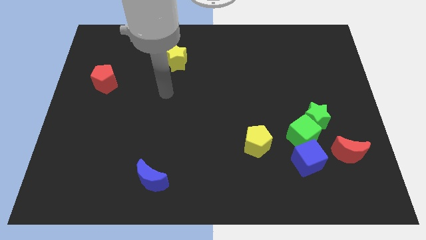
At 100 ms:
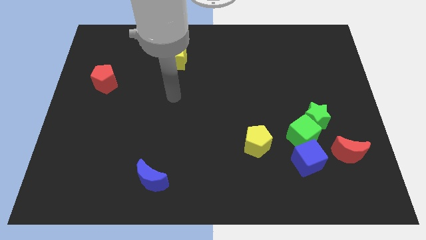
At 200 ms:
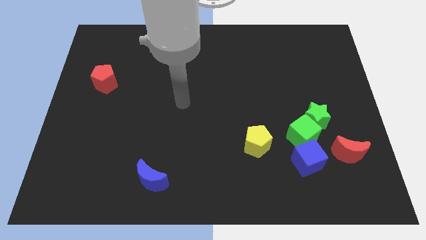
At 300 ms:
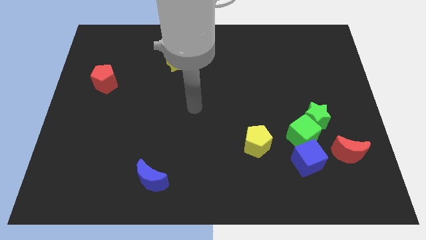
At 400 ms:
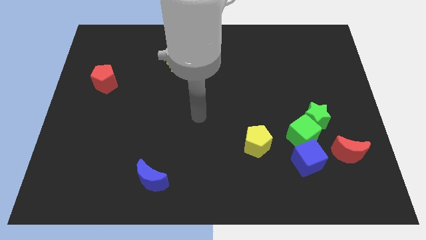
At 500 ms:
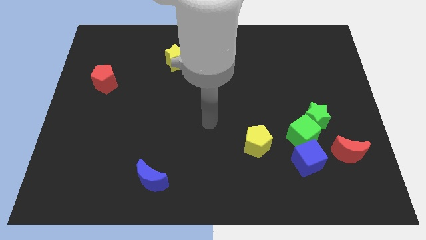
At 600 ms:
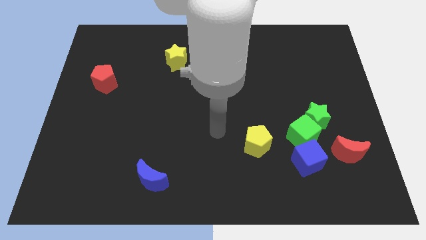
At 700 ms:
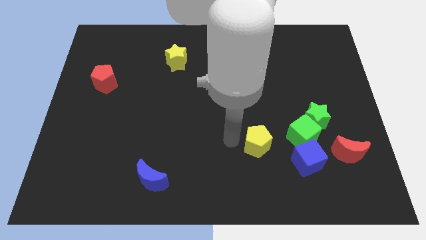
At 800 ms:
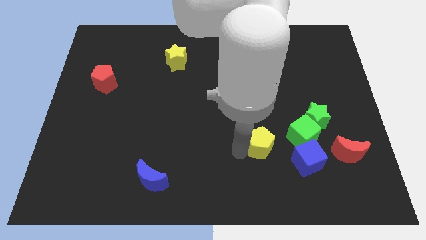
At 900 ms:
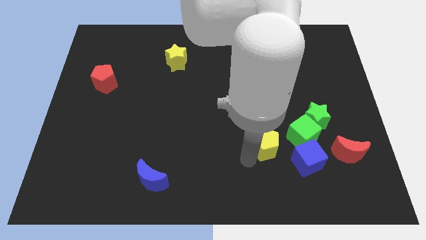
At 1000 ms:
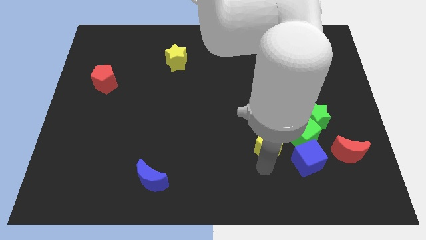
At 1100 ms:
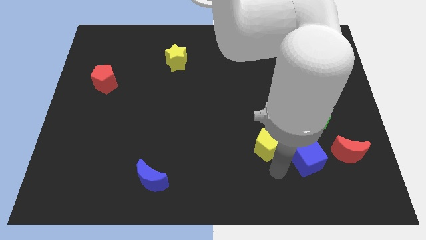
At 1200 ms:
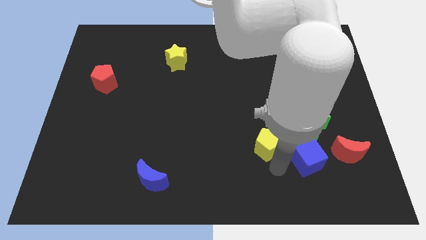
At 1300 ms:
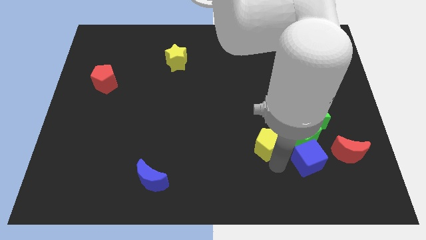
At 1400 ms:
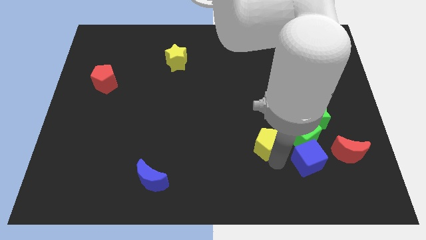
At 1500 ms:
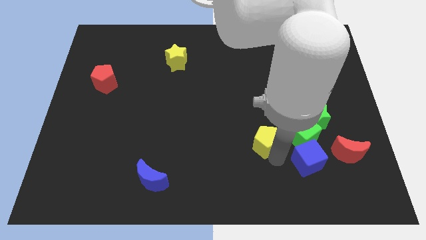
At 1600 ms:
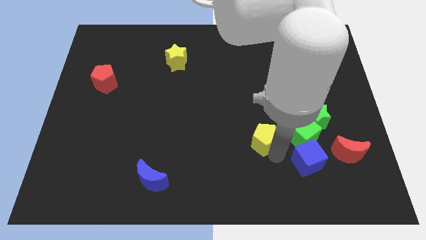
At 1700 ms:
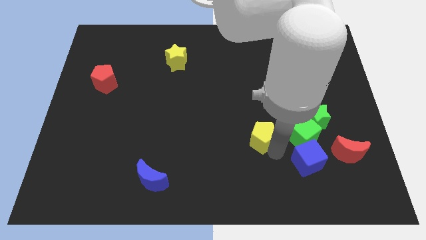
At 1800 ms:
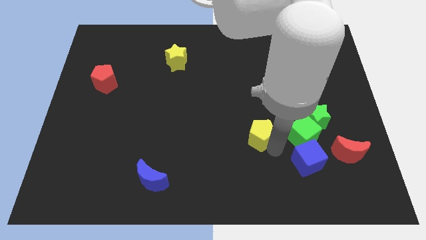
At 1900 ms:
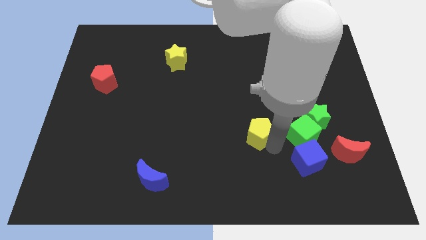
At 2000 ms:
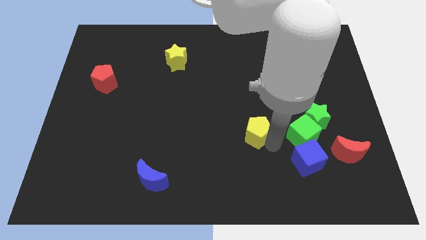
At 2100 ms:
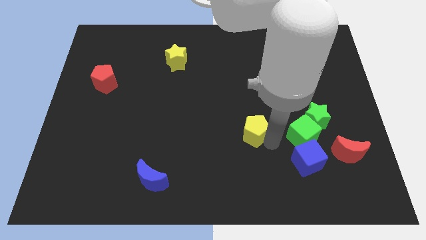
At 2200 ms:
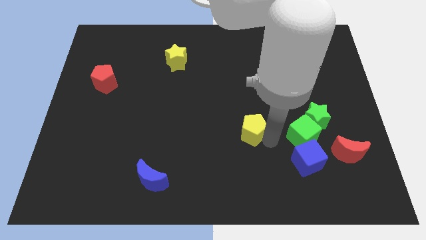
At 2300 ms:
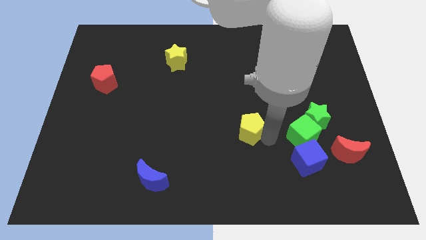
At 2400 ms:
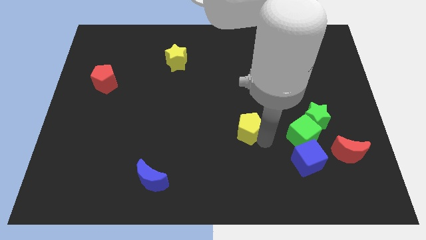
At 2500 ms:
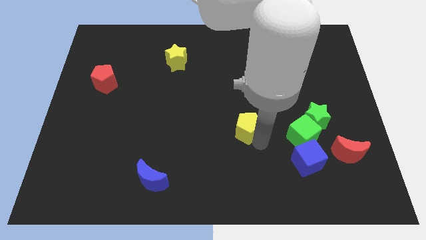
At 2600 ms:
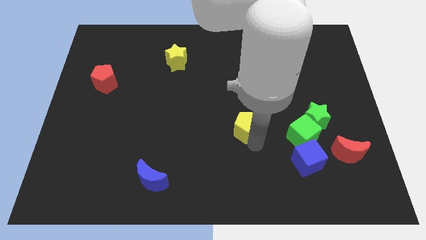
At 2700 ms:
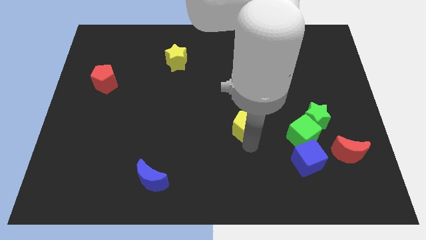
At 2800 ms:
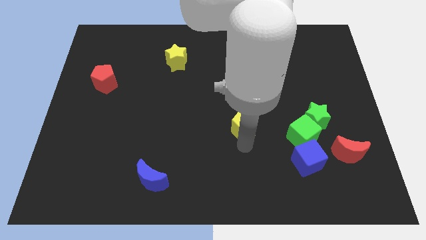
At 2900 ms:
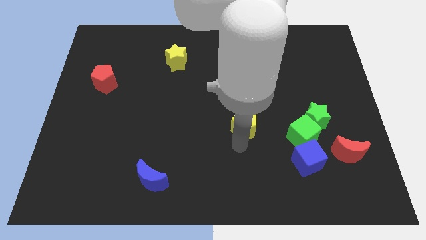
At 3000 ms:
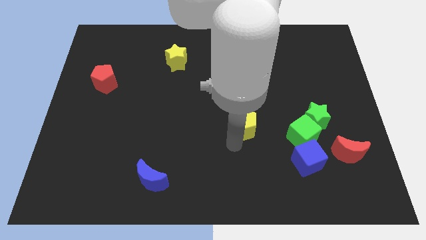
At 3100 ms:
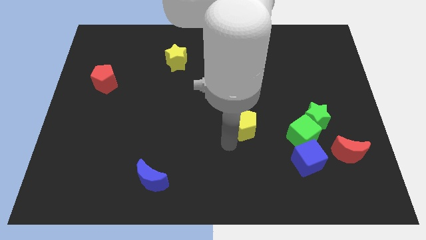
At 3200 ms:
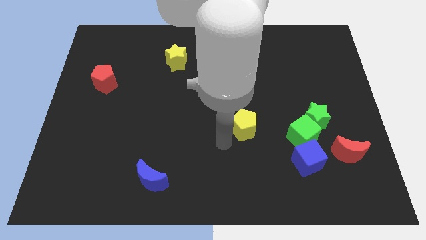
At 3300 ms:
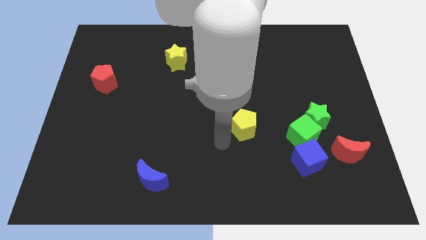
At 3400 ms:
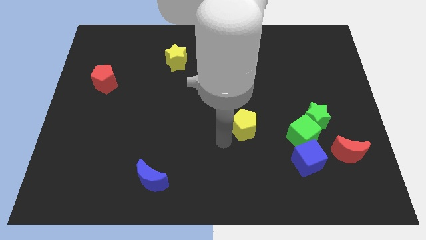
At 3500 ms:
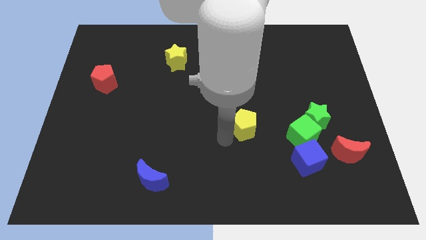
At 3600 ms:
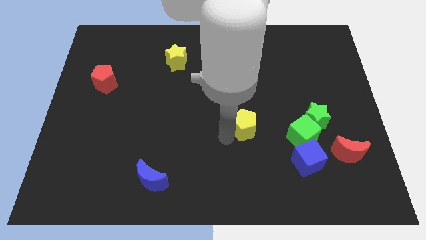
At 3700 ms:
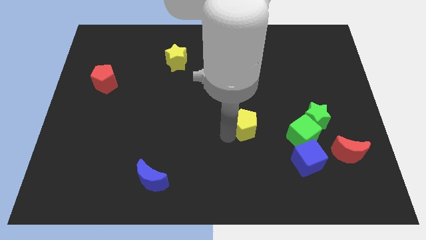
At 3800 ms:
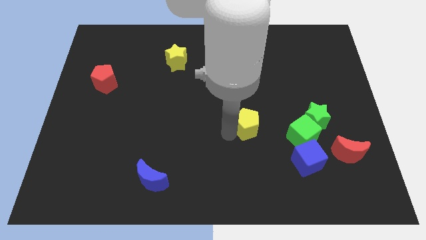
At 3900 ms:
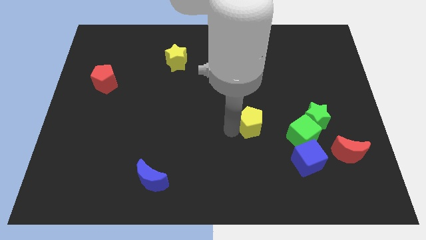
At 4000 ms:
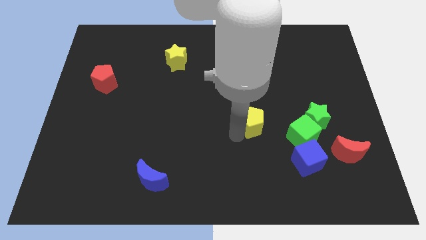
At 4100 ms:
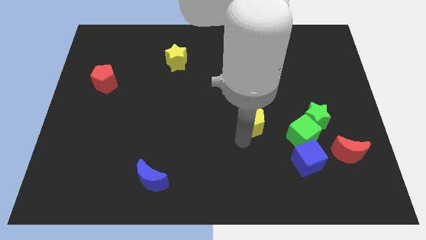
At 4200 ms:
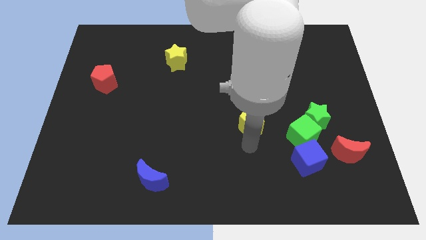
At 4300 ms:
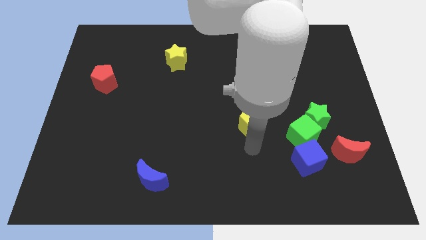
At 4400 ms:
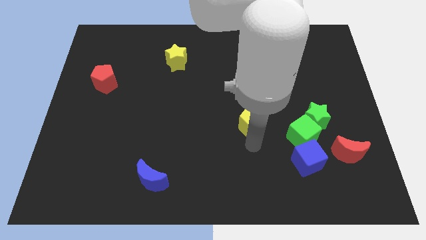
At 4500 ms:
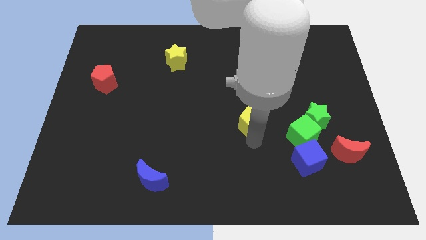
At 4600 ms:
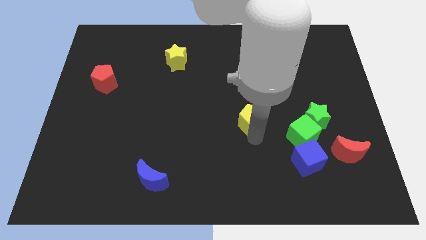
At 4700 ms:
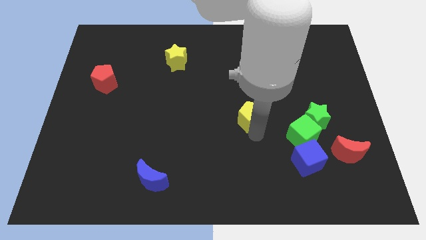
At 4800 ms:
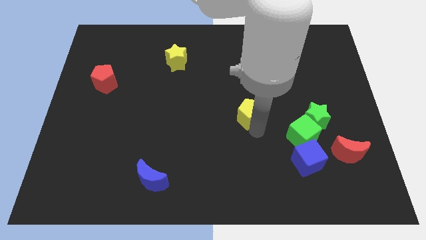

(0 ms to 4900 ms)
move the yellow pentagon upwards a bit

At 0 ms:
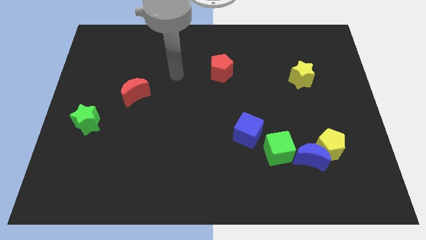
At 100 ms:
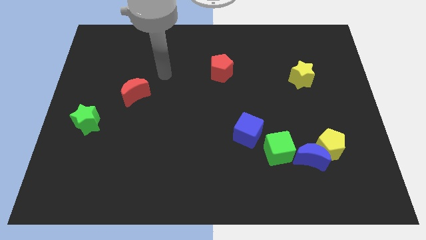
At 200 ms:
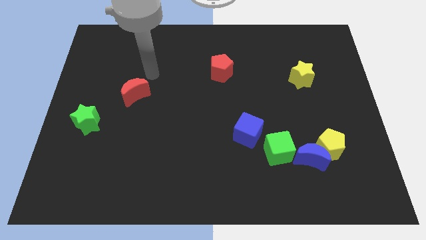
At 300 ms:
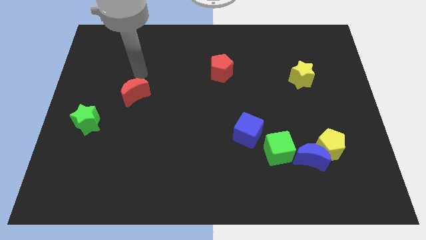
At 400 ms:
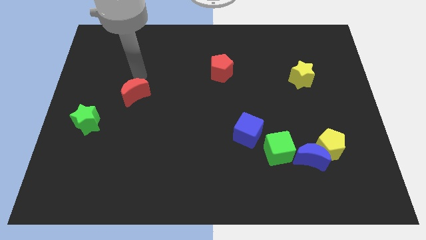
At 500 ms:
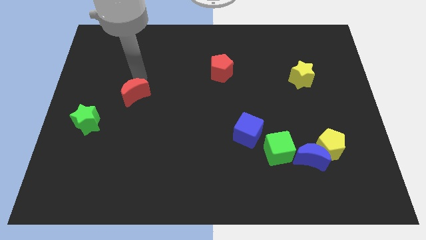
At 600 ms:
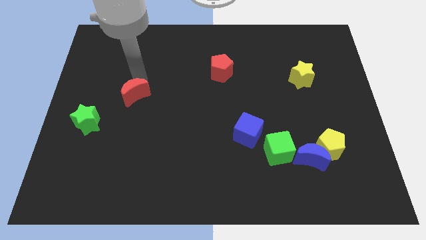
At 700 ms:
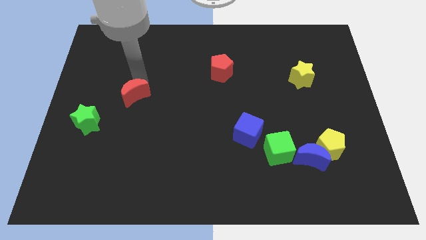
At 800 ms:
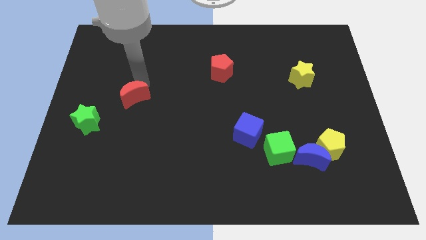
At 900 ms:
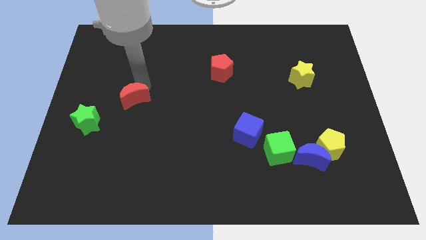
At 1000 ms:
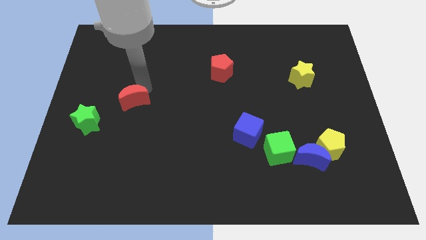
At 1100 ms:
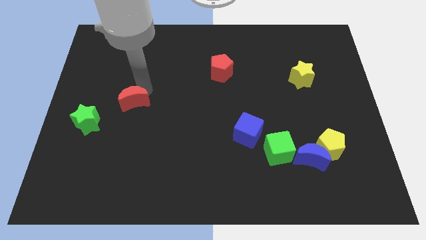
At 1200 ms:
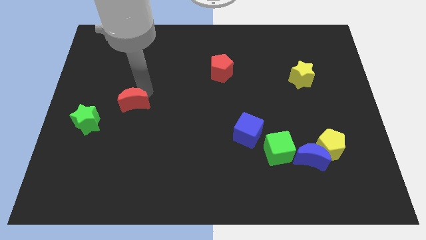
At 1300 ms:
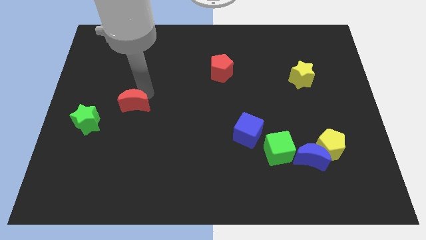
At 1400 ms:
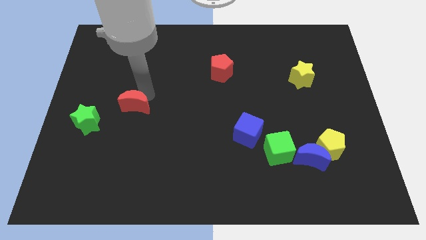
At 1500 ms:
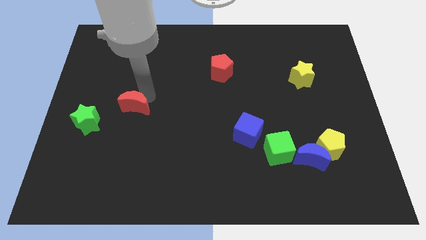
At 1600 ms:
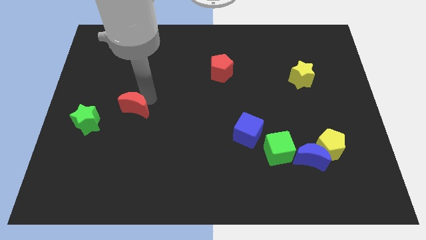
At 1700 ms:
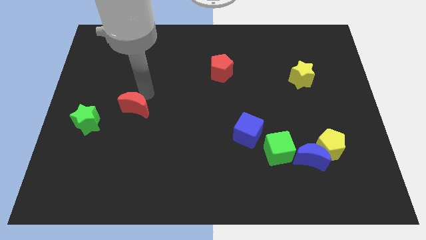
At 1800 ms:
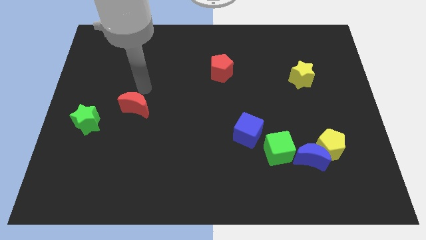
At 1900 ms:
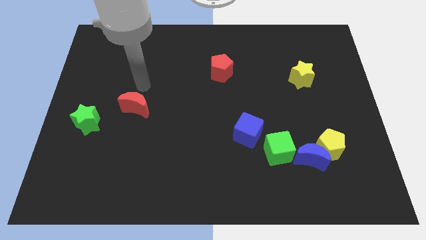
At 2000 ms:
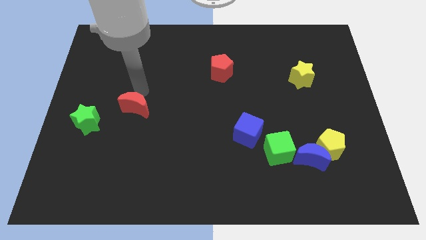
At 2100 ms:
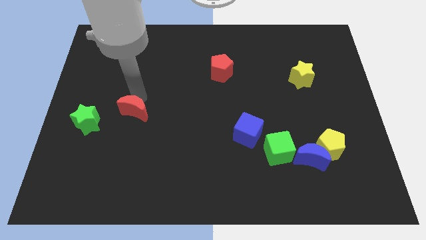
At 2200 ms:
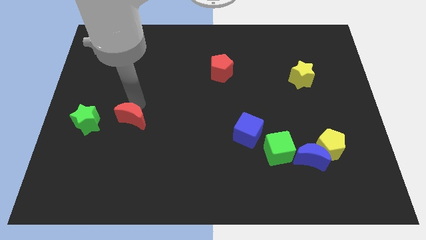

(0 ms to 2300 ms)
slide the red moon a bit downwards

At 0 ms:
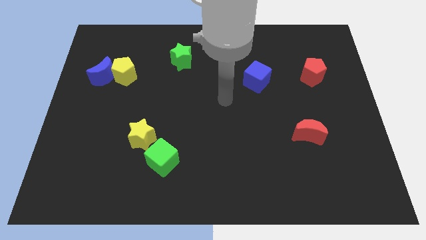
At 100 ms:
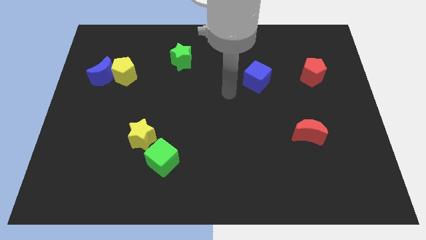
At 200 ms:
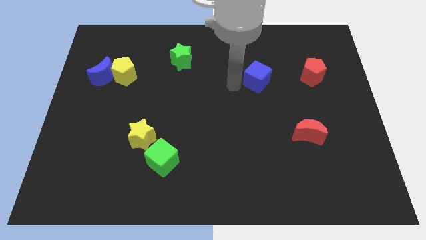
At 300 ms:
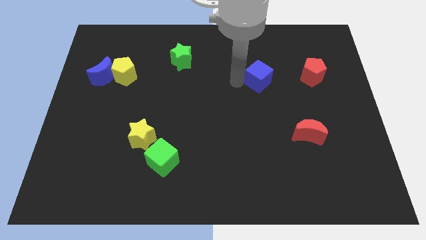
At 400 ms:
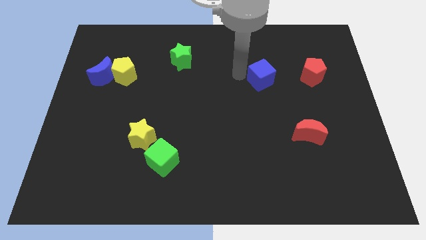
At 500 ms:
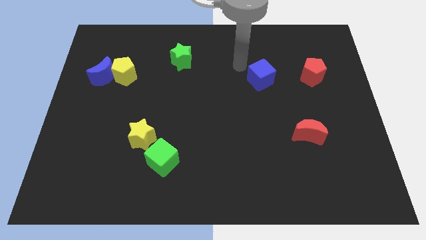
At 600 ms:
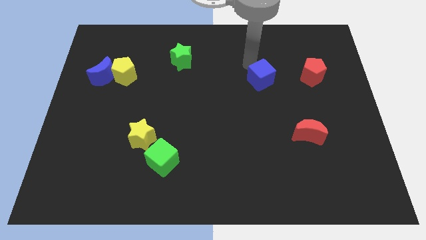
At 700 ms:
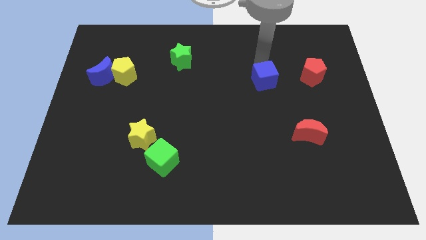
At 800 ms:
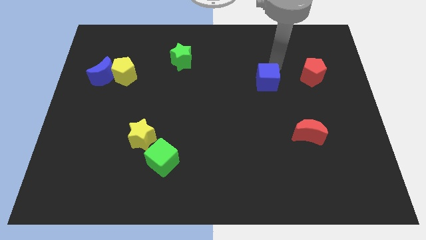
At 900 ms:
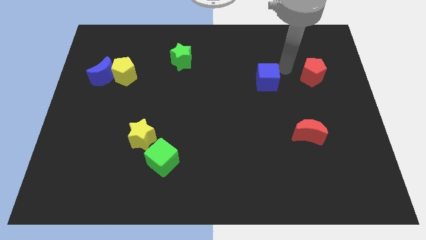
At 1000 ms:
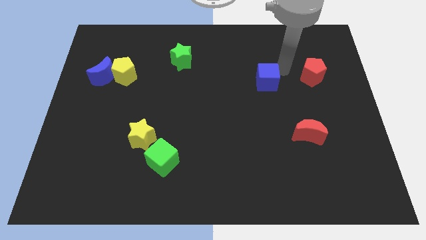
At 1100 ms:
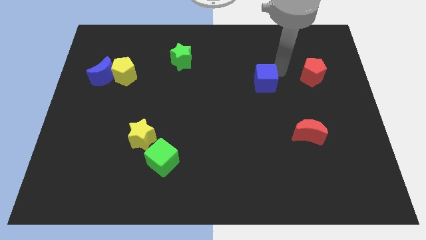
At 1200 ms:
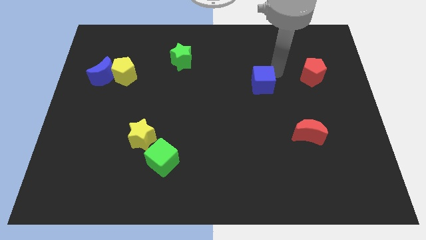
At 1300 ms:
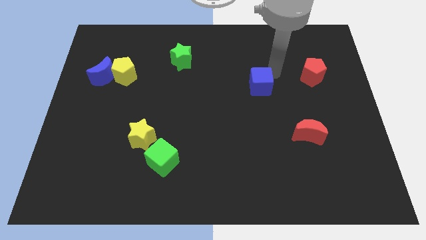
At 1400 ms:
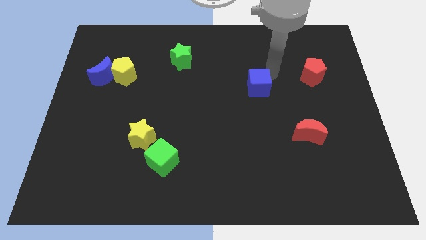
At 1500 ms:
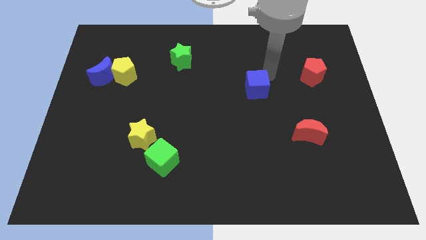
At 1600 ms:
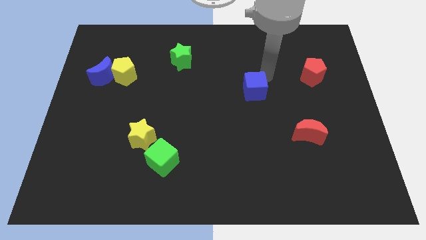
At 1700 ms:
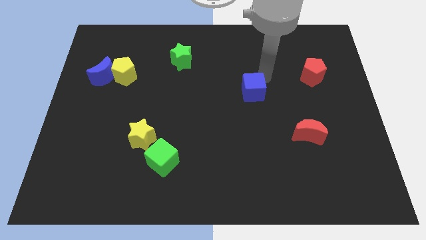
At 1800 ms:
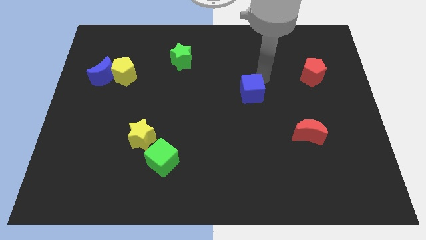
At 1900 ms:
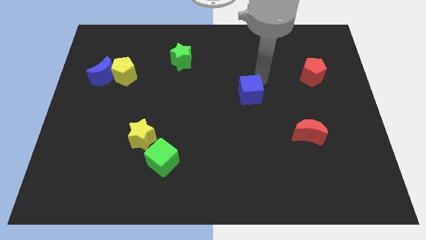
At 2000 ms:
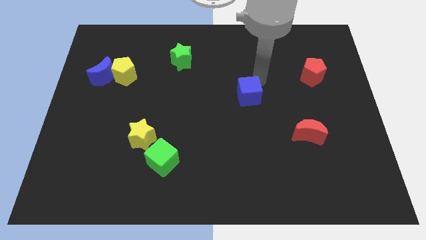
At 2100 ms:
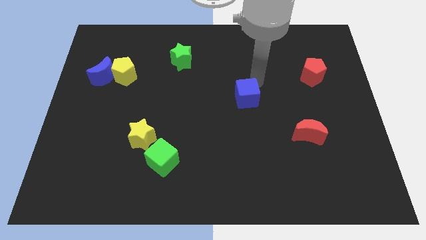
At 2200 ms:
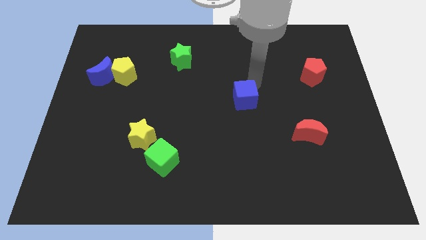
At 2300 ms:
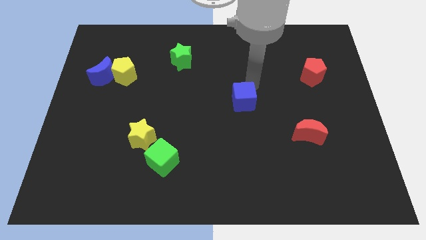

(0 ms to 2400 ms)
slightly slide the blue cube diagonally down and to the left
